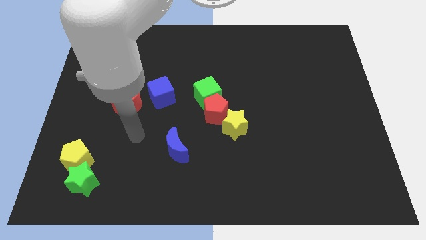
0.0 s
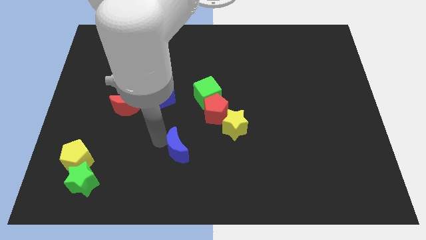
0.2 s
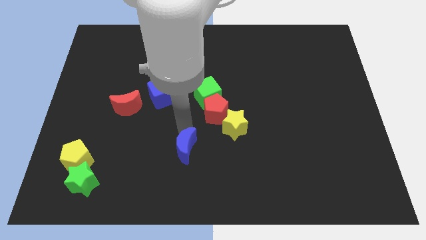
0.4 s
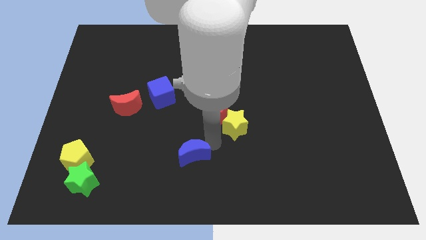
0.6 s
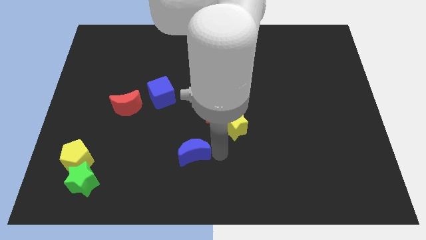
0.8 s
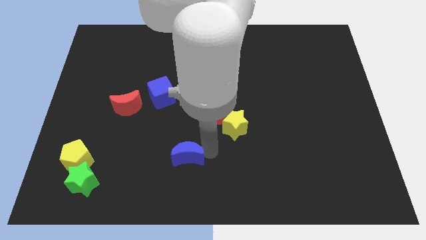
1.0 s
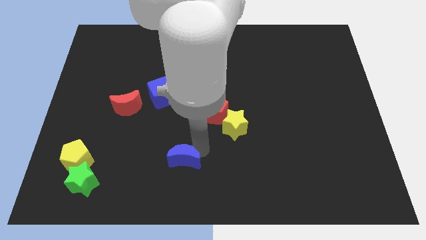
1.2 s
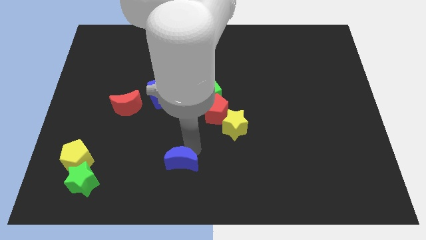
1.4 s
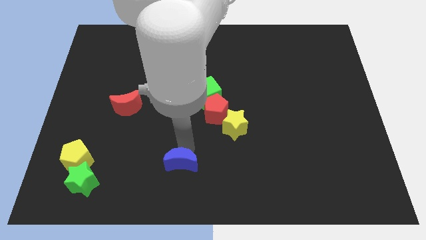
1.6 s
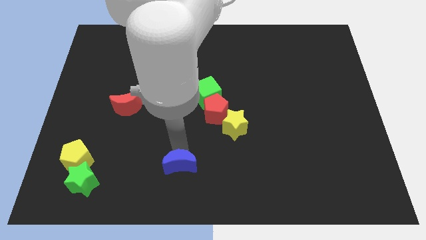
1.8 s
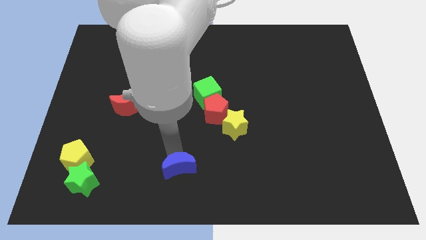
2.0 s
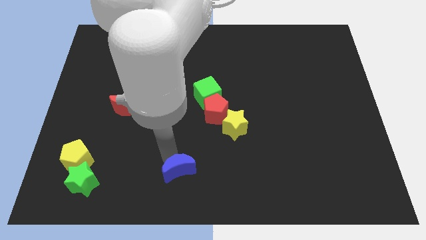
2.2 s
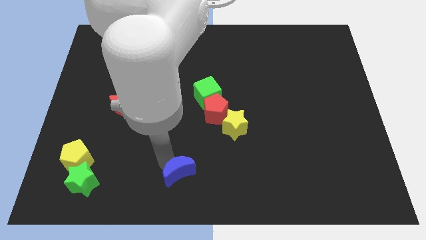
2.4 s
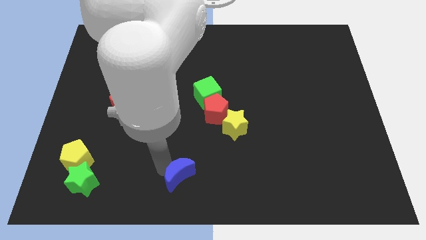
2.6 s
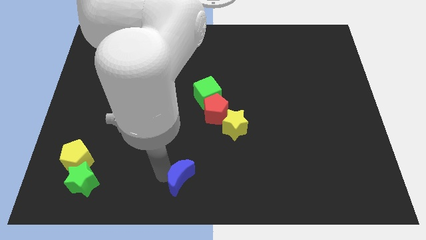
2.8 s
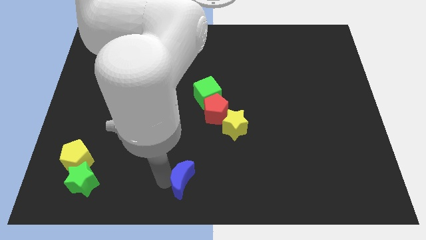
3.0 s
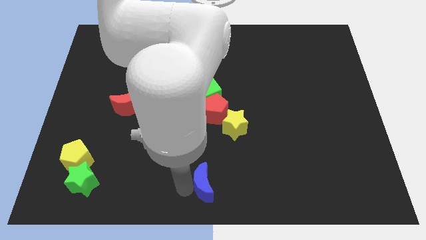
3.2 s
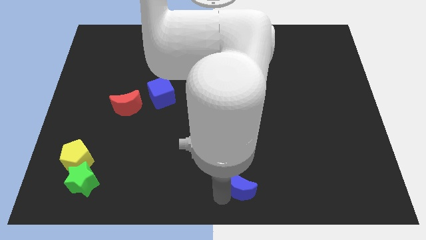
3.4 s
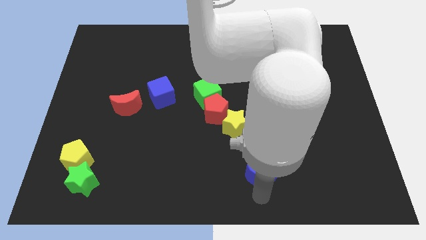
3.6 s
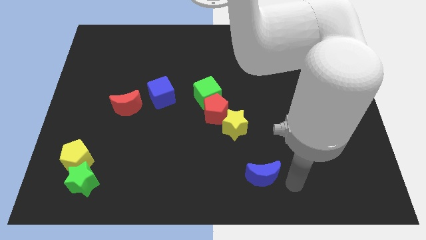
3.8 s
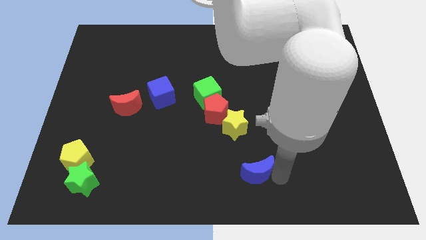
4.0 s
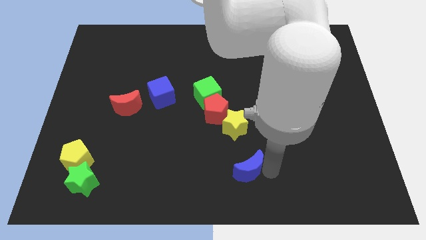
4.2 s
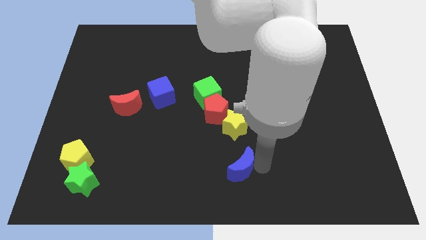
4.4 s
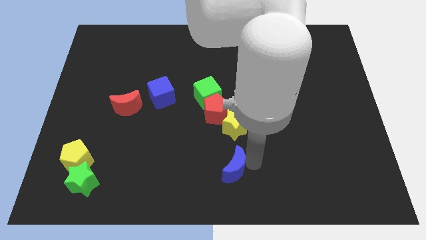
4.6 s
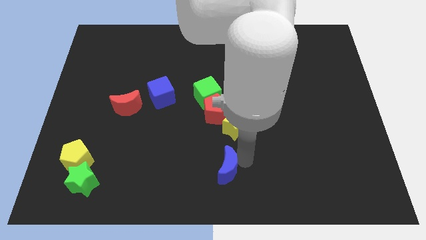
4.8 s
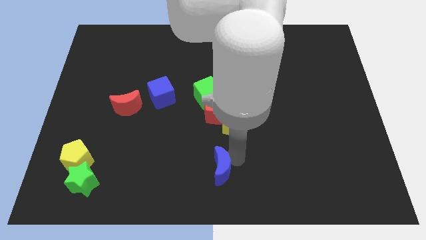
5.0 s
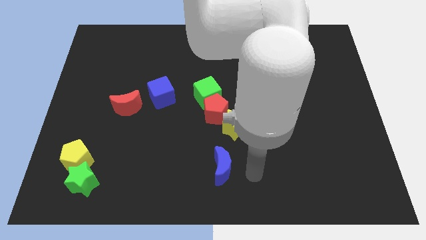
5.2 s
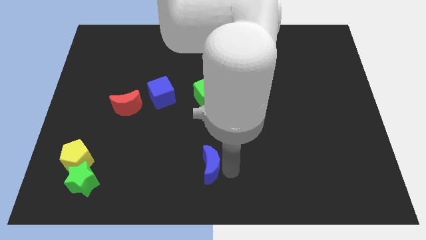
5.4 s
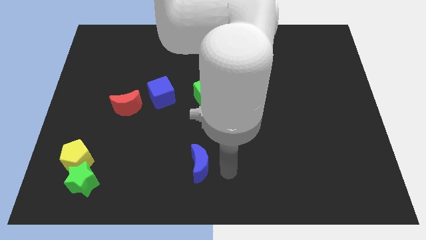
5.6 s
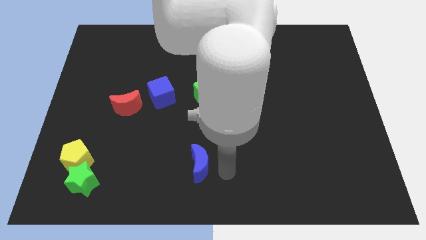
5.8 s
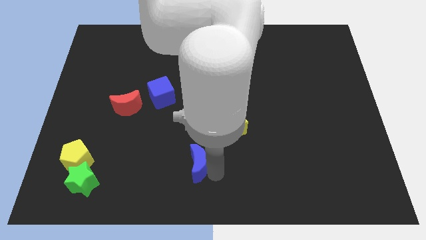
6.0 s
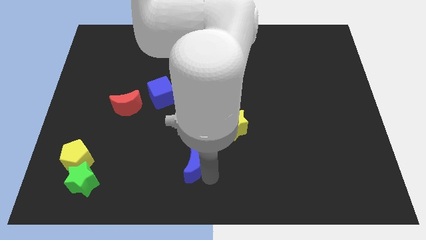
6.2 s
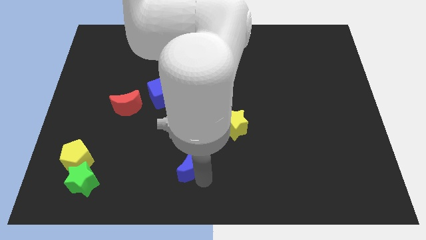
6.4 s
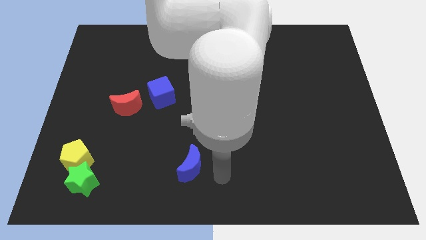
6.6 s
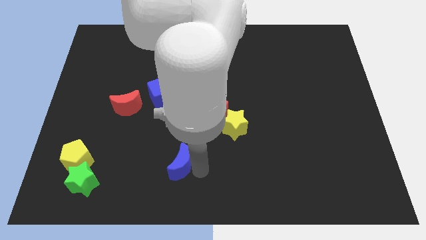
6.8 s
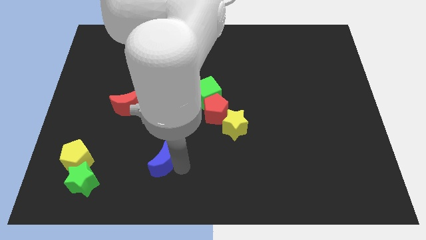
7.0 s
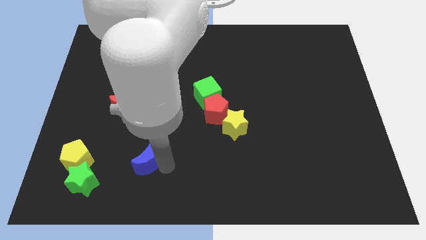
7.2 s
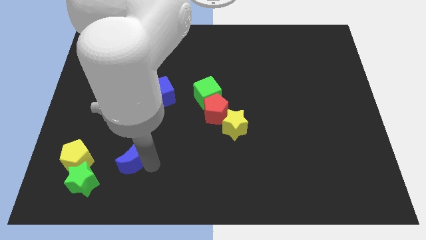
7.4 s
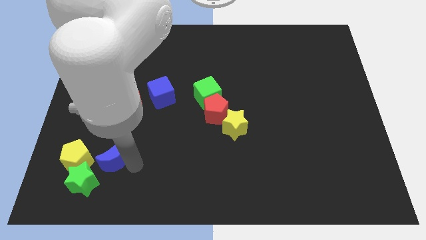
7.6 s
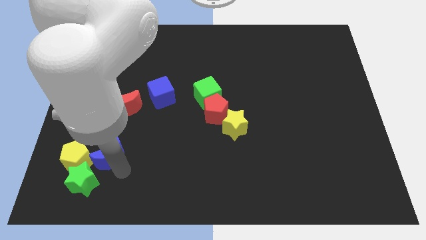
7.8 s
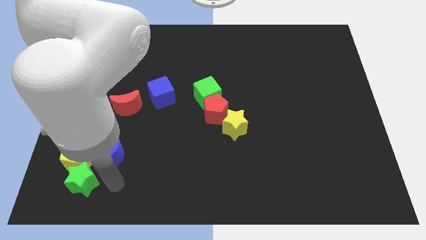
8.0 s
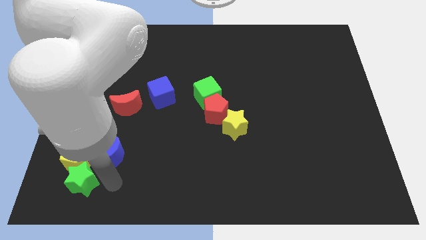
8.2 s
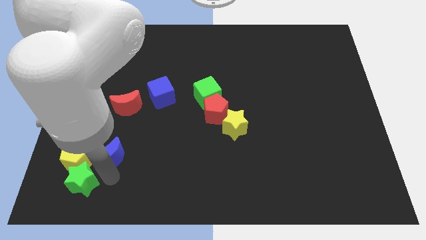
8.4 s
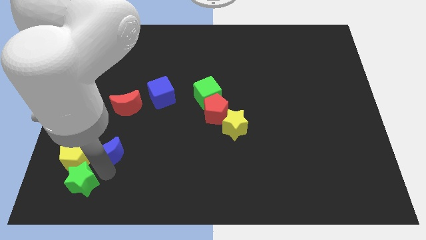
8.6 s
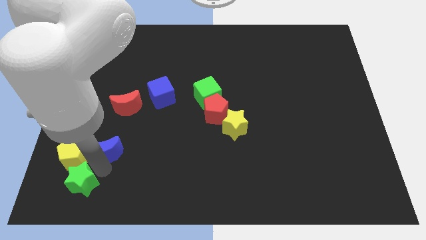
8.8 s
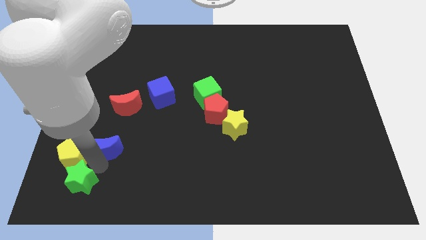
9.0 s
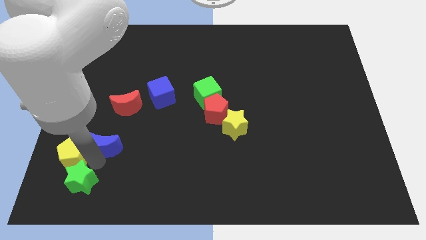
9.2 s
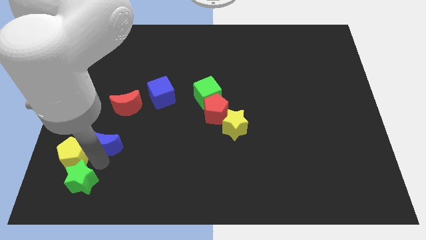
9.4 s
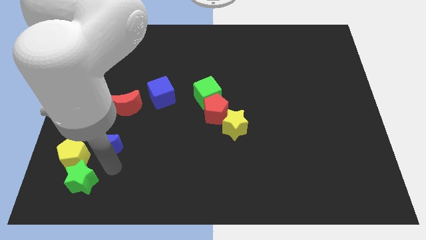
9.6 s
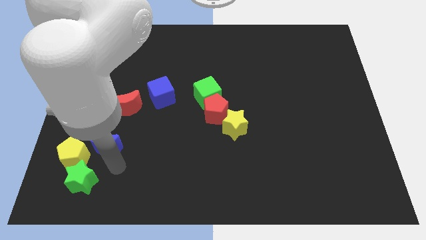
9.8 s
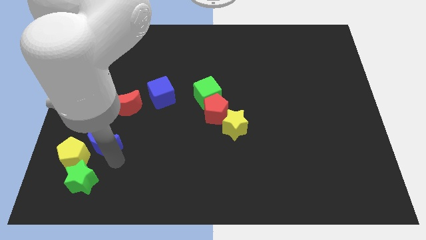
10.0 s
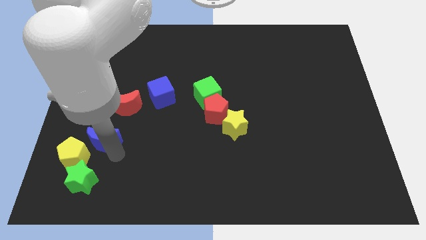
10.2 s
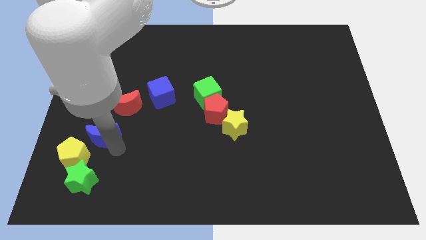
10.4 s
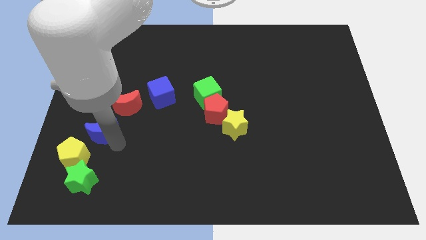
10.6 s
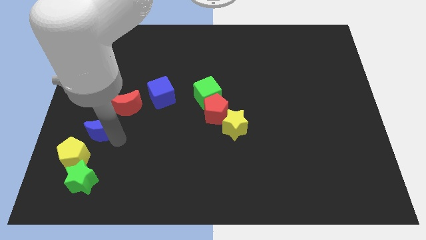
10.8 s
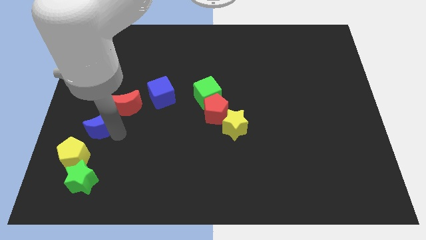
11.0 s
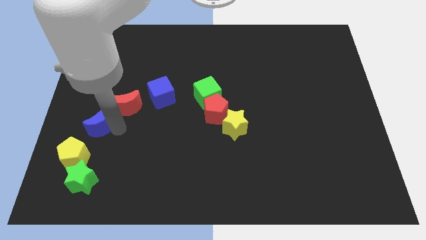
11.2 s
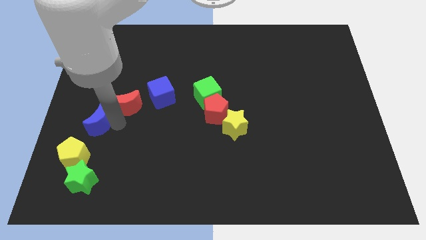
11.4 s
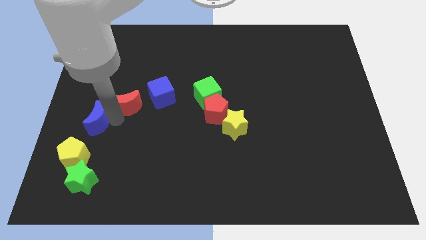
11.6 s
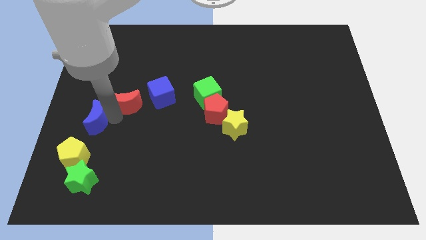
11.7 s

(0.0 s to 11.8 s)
put the blue moon to the left side
